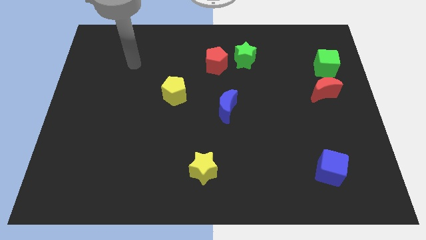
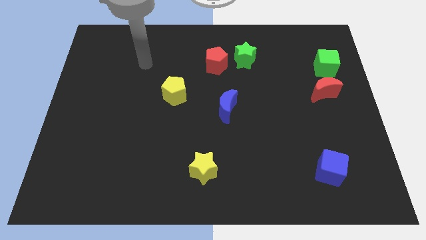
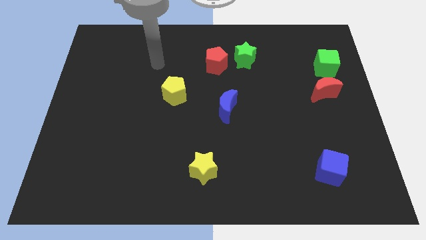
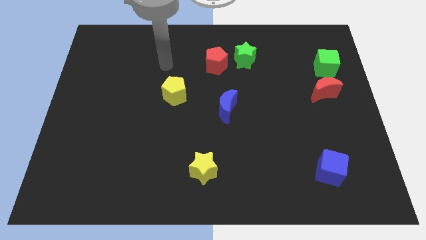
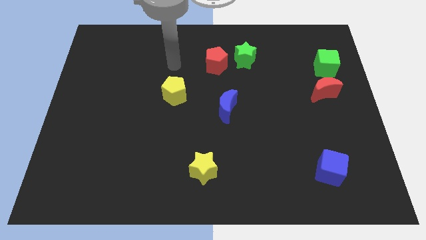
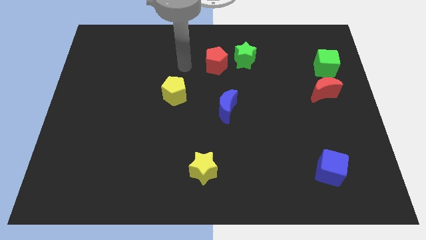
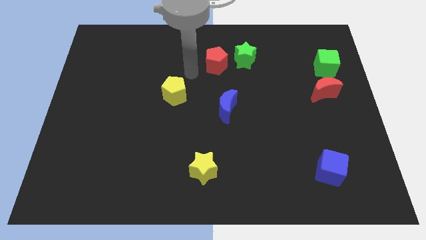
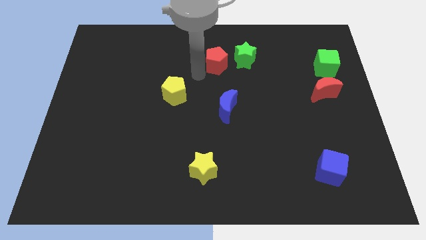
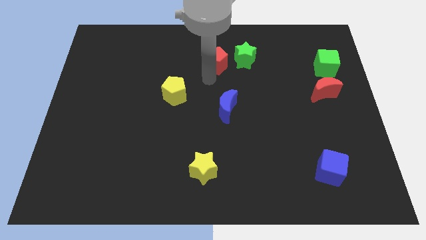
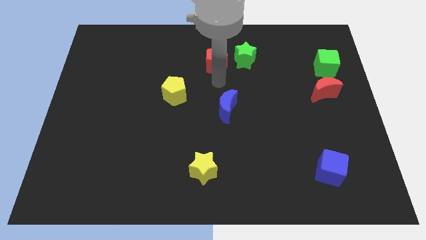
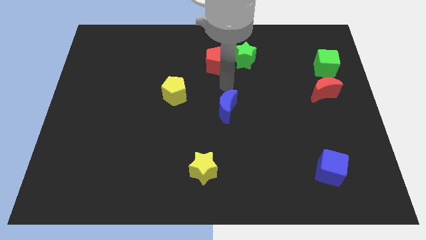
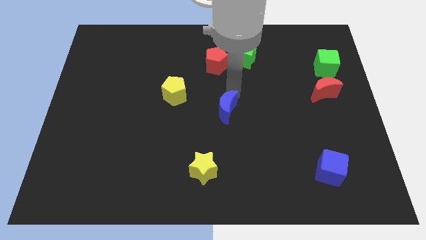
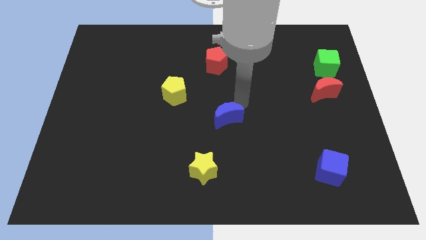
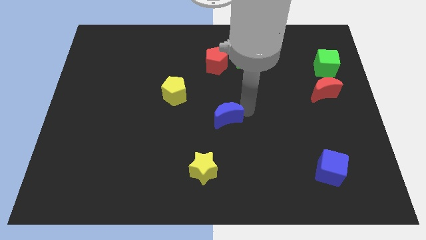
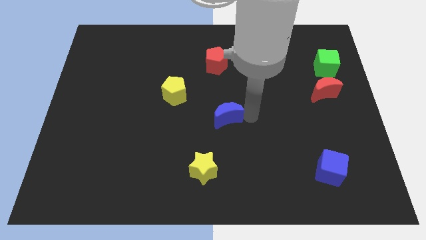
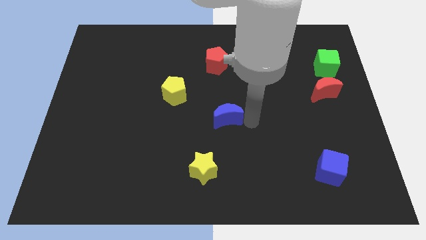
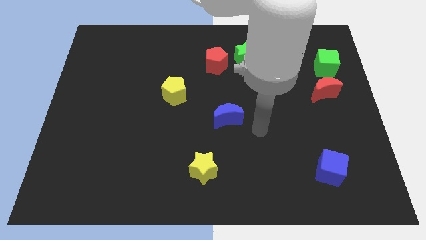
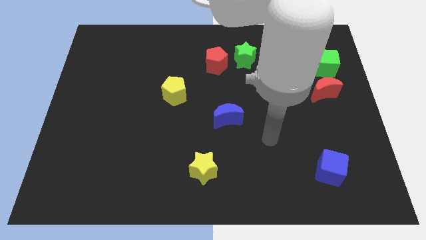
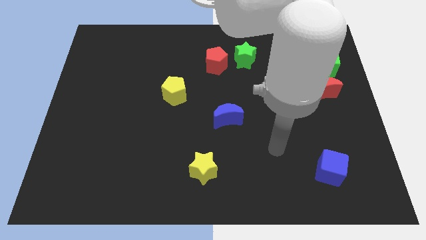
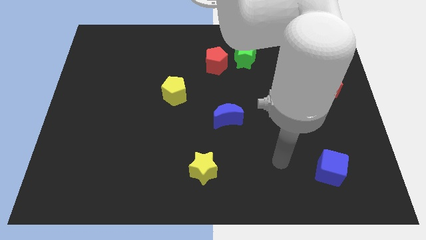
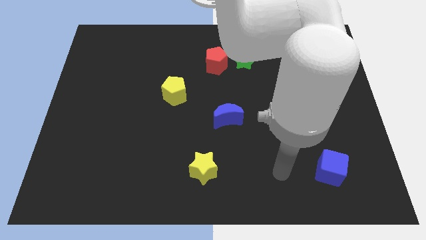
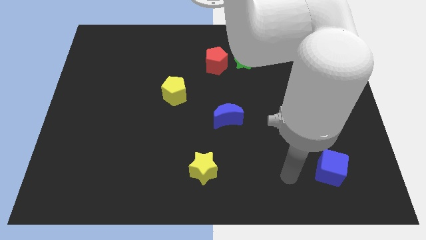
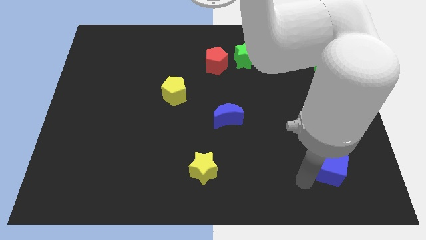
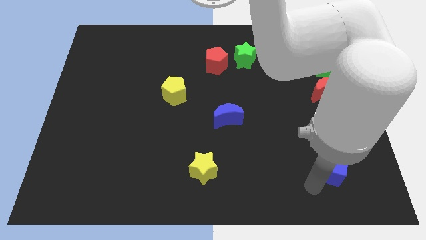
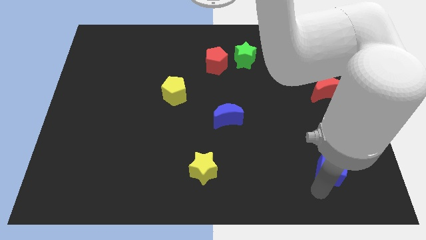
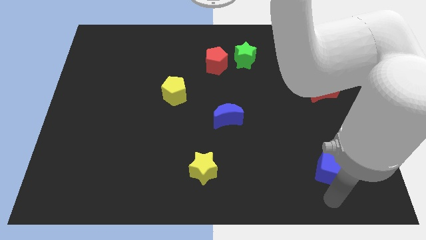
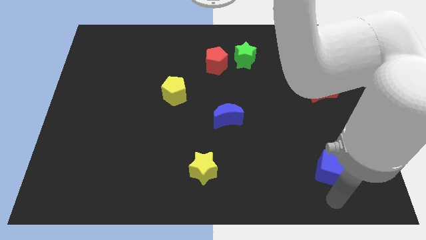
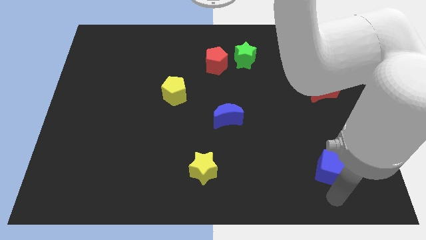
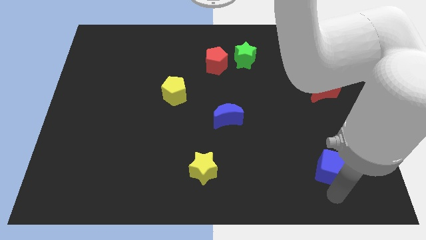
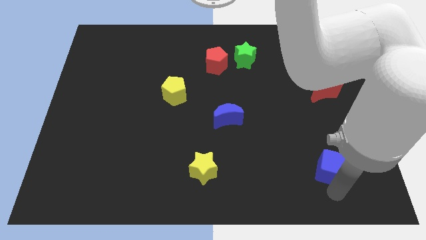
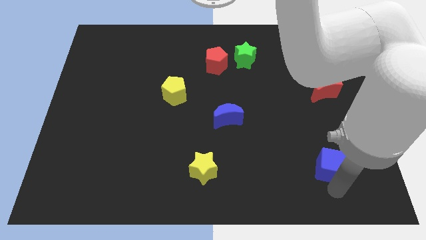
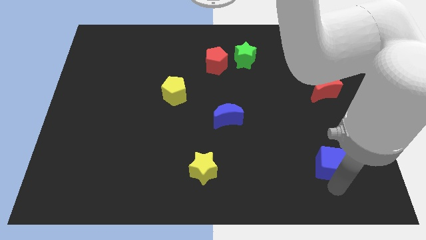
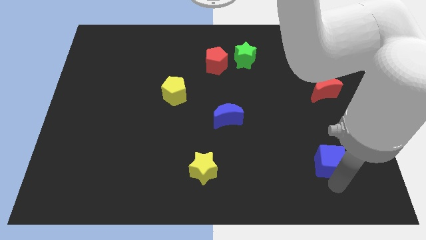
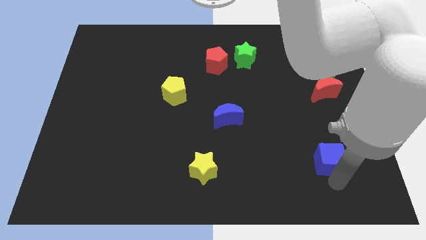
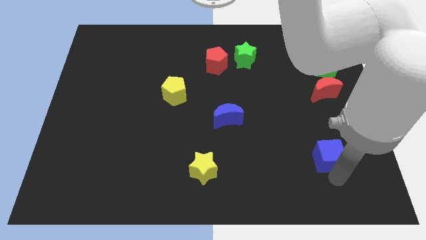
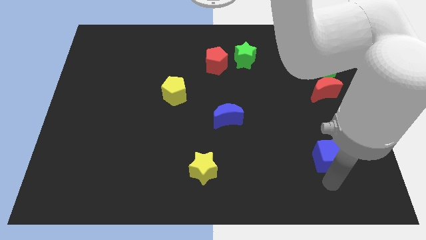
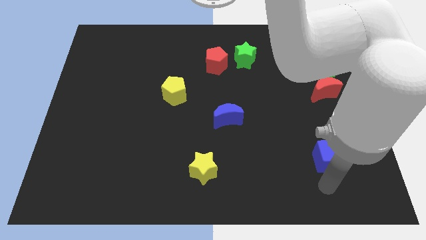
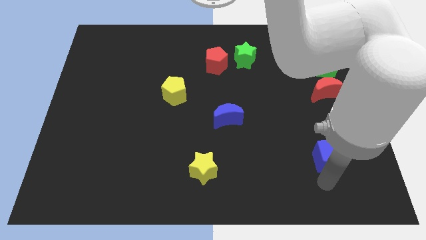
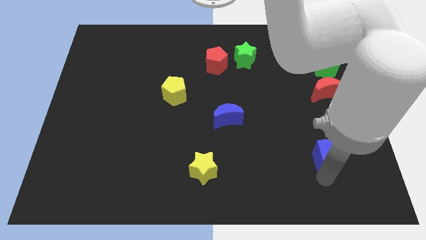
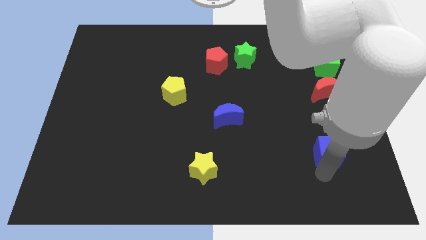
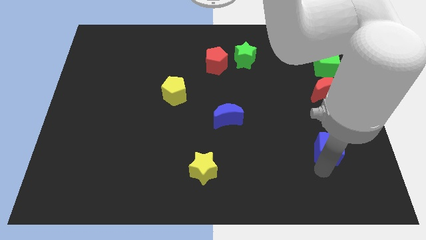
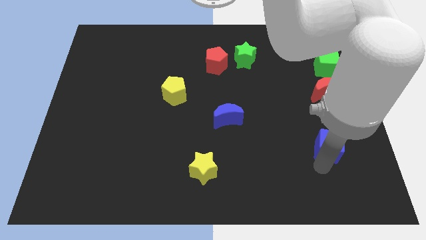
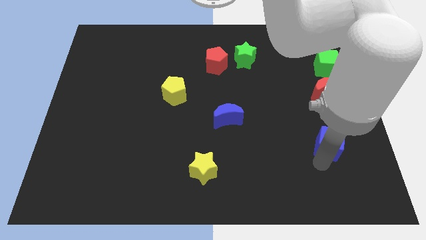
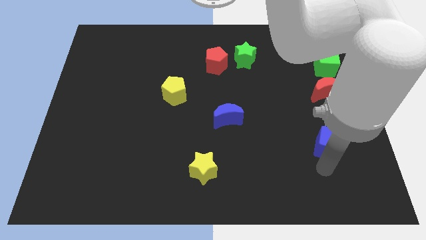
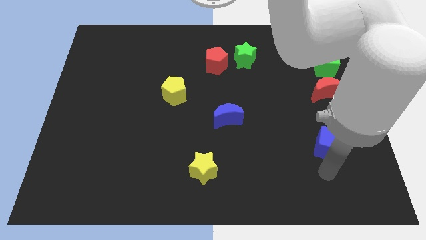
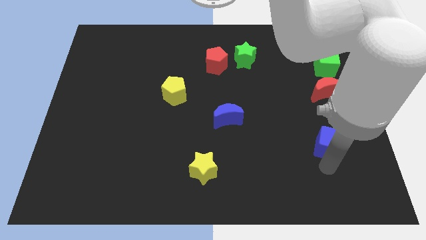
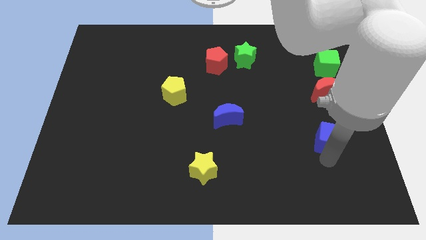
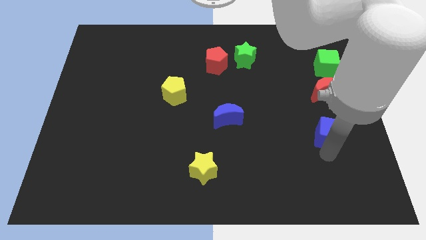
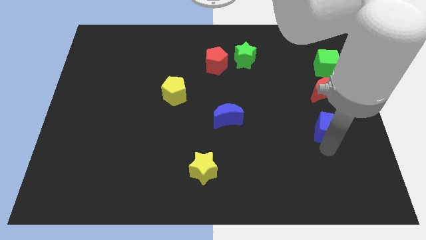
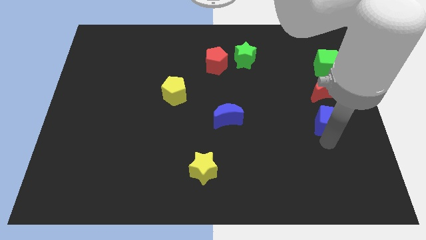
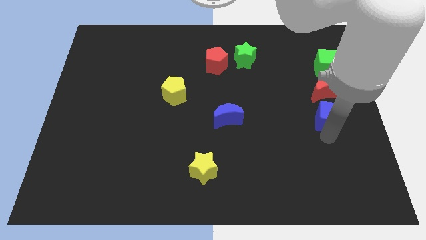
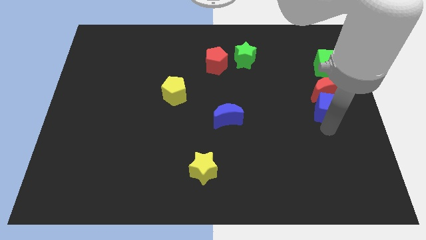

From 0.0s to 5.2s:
slide the blue cube to the red moon

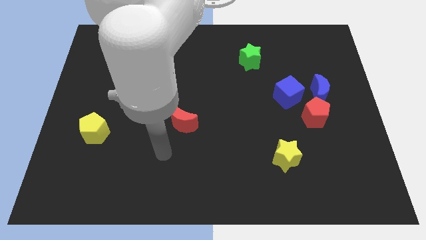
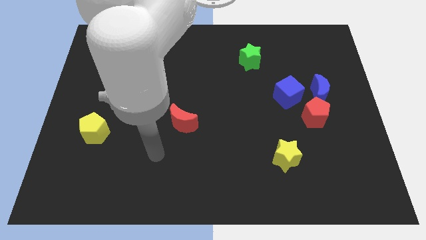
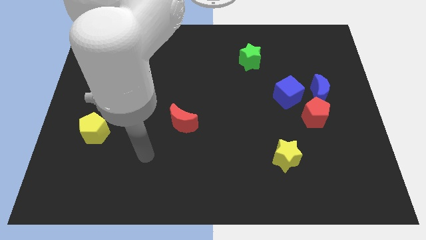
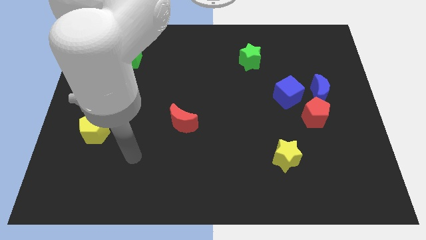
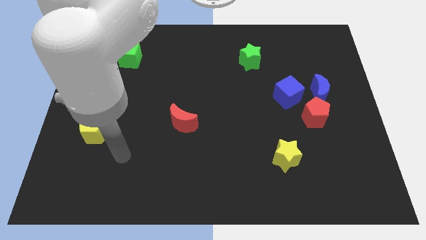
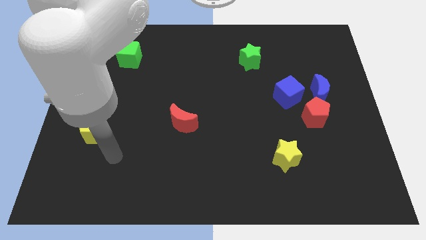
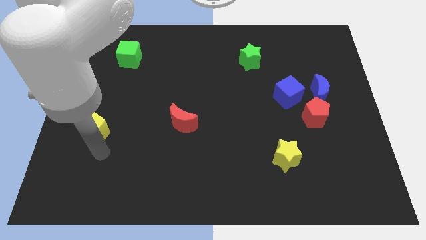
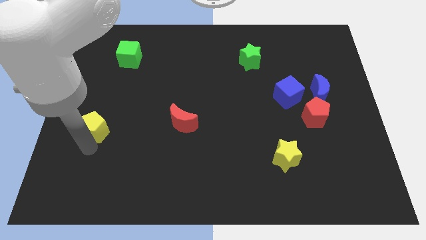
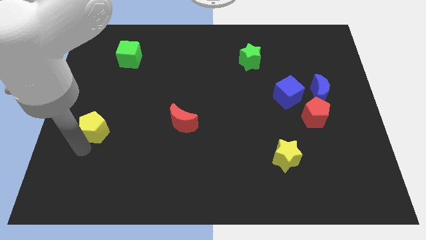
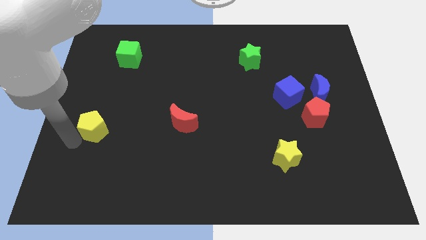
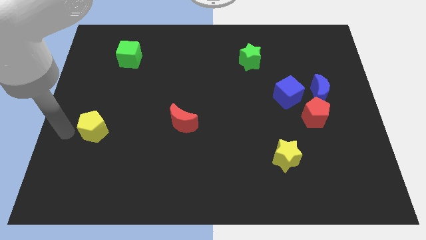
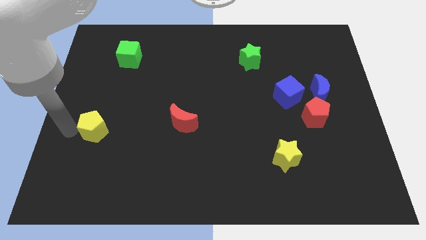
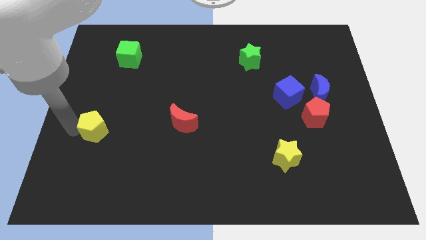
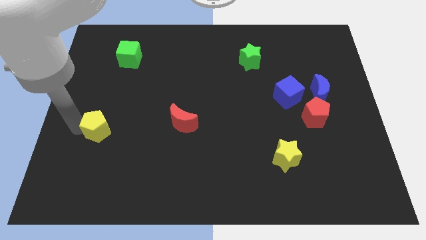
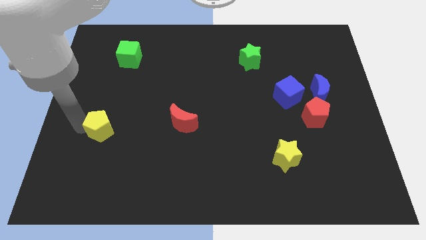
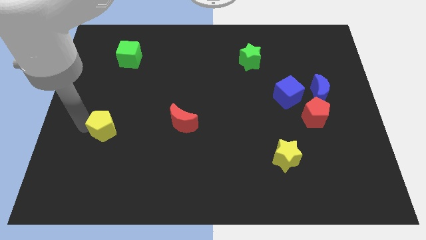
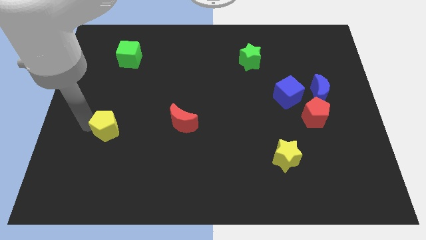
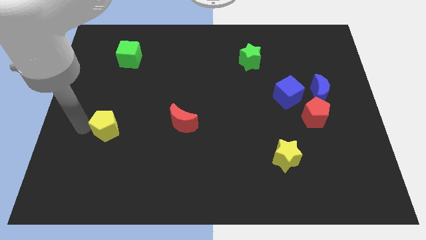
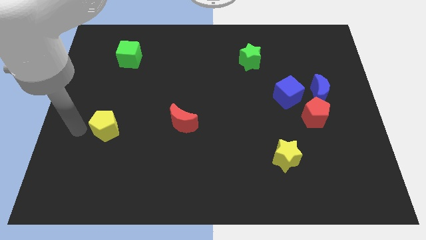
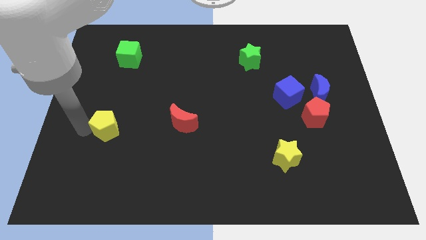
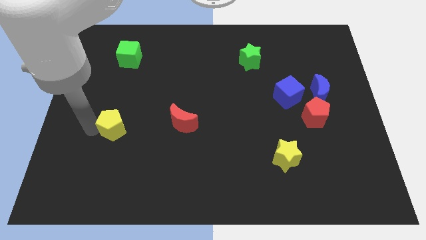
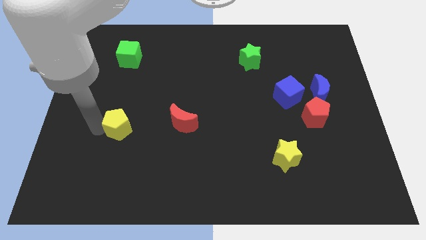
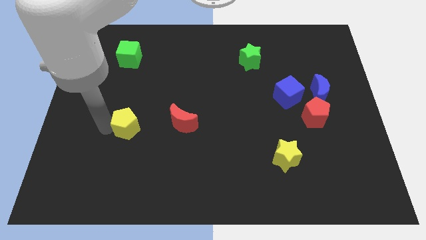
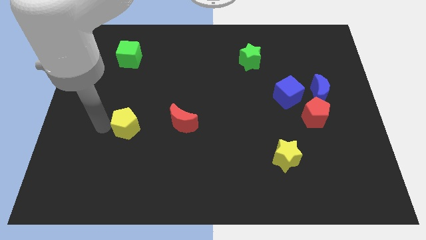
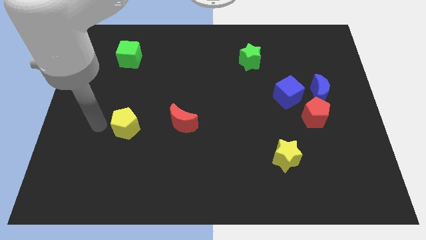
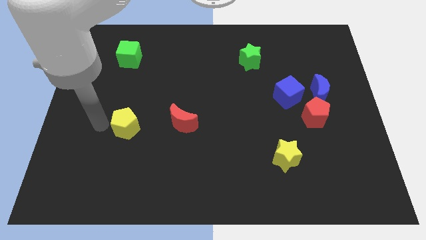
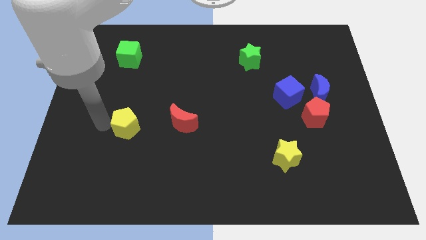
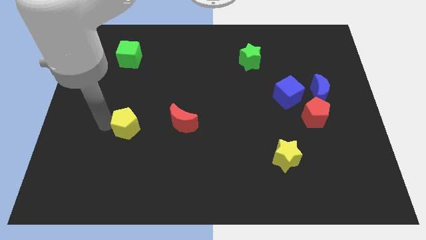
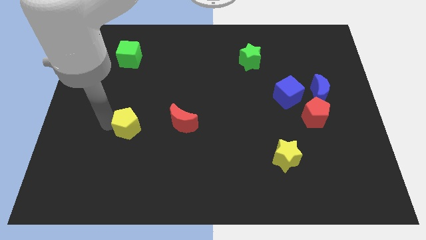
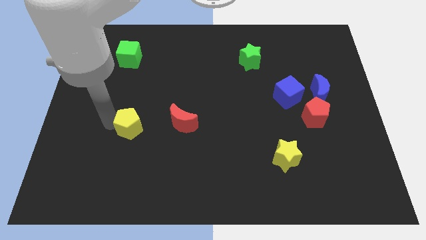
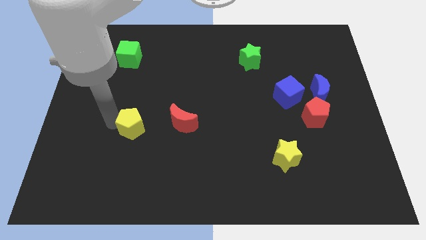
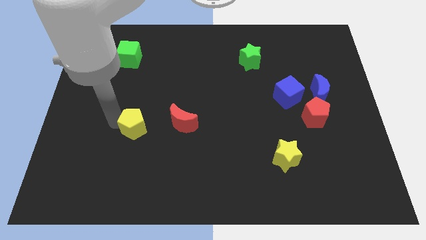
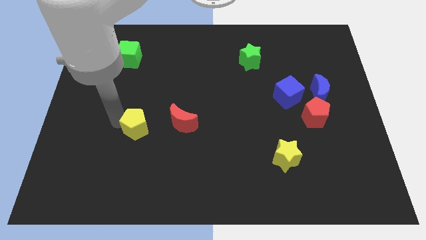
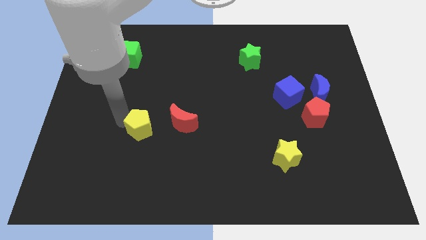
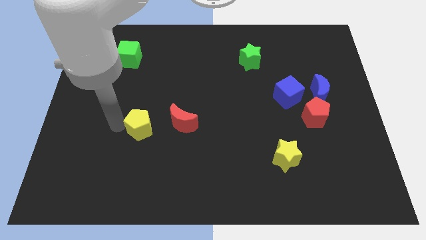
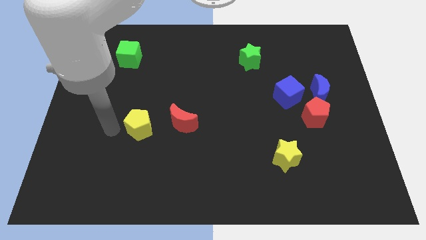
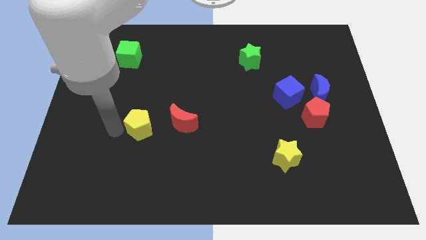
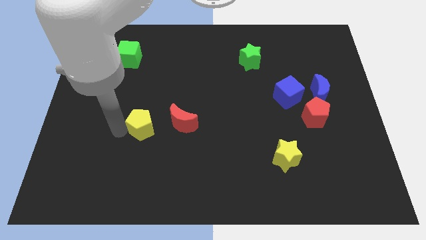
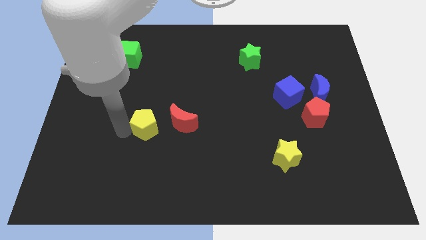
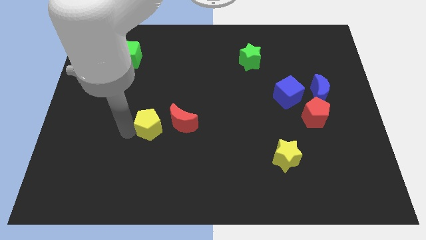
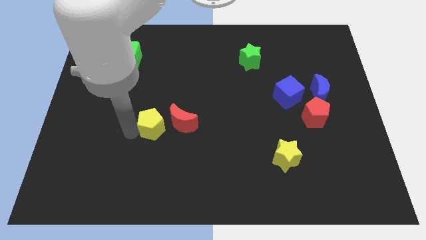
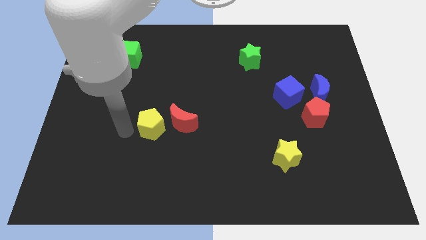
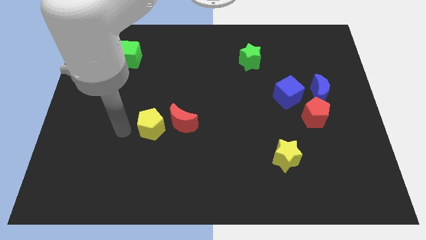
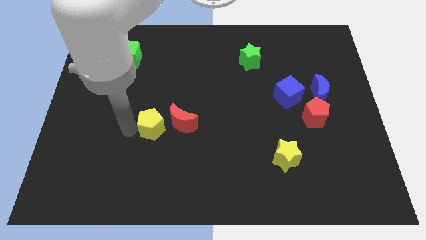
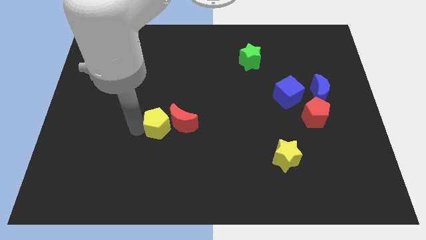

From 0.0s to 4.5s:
push the yellow pentagon next to the red moon
